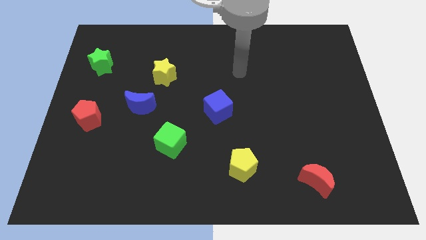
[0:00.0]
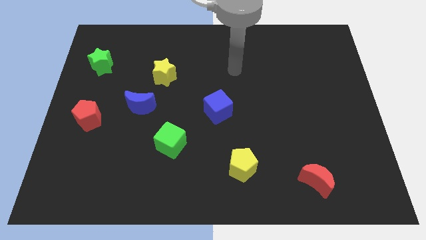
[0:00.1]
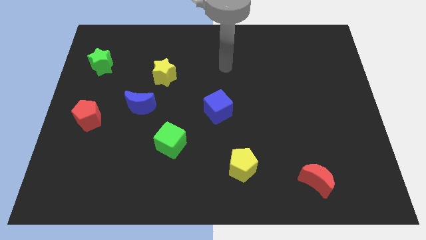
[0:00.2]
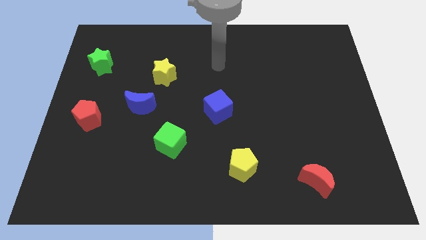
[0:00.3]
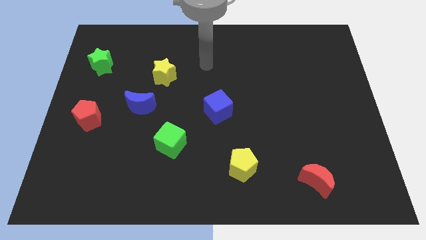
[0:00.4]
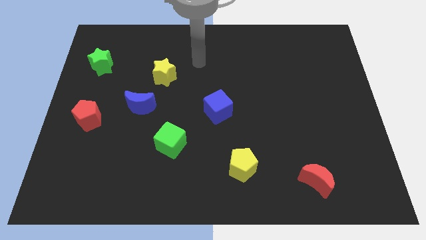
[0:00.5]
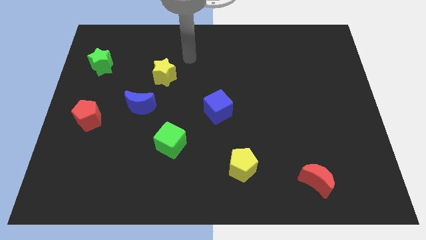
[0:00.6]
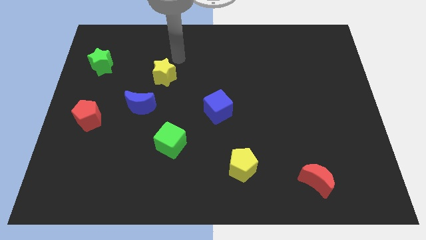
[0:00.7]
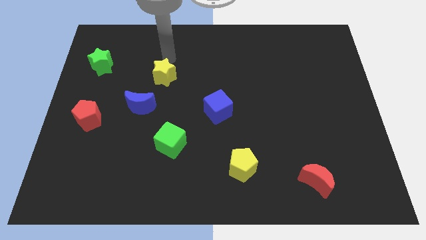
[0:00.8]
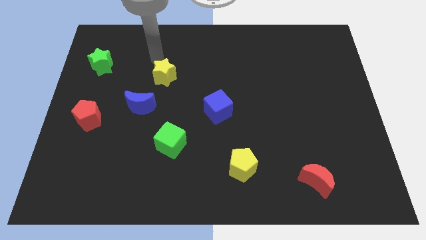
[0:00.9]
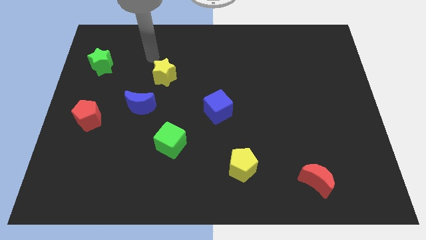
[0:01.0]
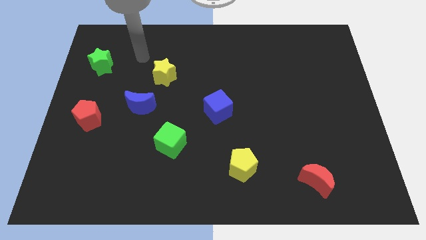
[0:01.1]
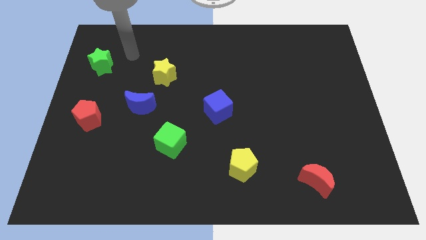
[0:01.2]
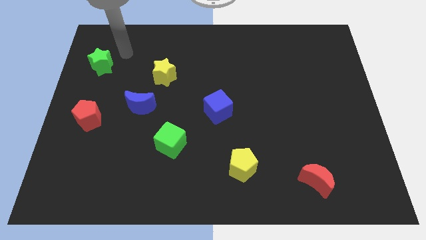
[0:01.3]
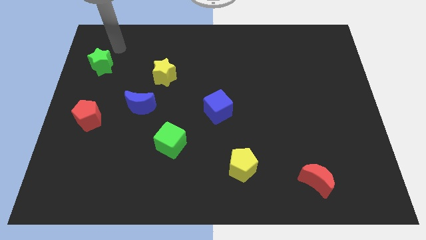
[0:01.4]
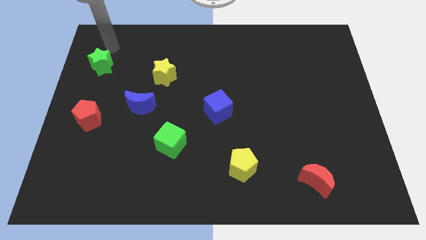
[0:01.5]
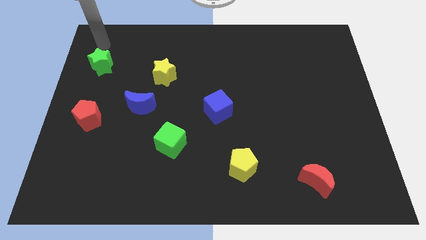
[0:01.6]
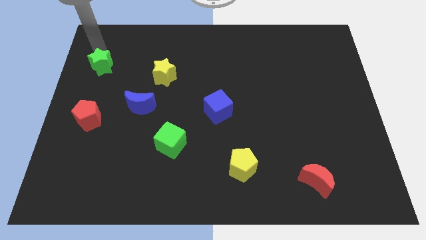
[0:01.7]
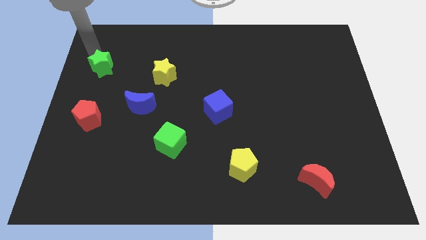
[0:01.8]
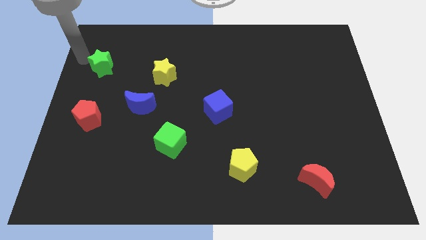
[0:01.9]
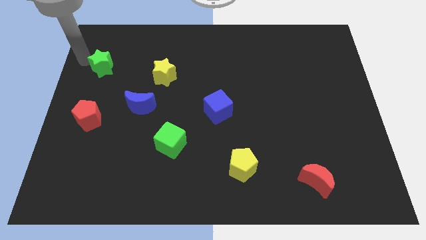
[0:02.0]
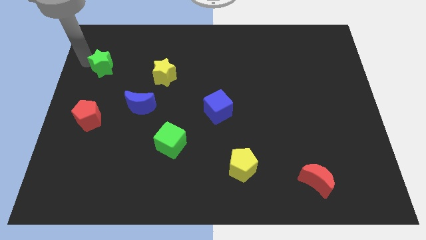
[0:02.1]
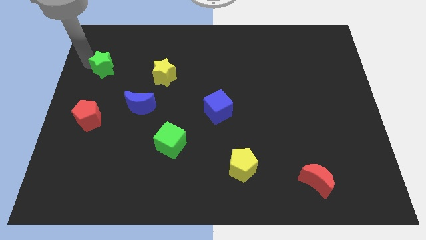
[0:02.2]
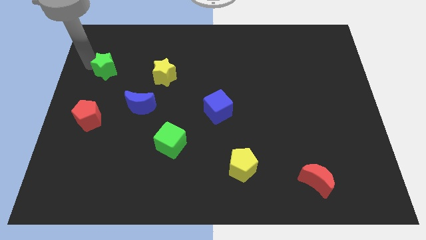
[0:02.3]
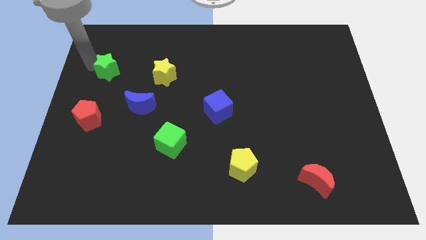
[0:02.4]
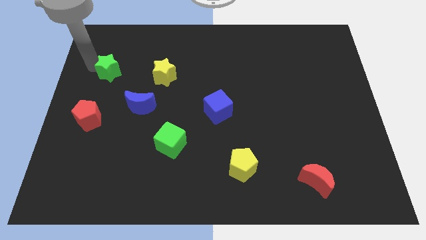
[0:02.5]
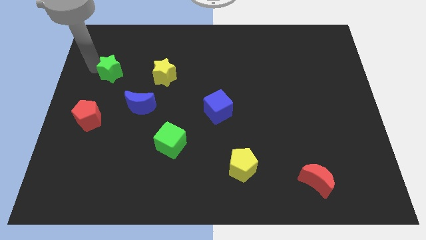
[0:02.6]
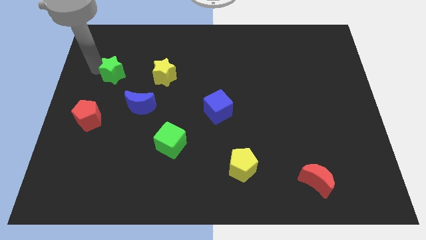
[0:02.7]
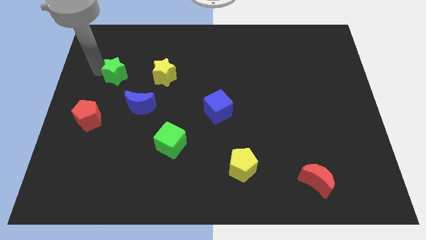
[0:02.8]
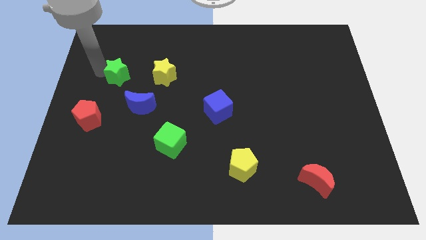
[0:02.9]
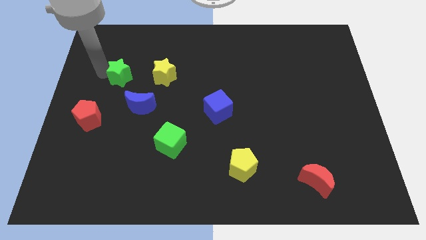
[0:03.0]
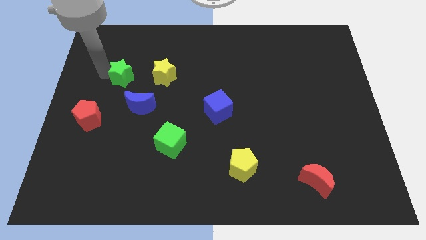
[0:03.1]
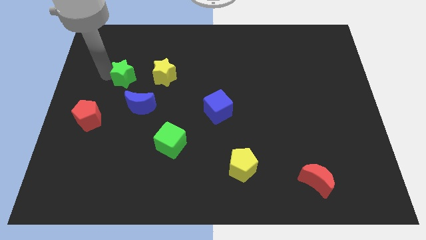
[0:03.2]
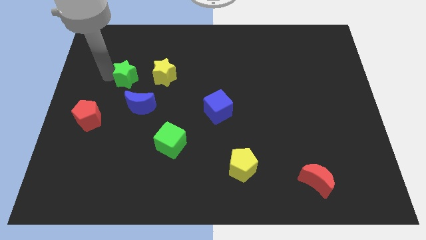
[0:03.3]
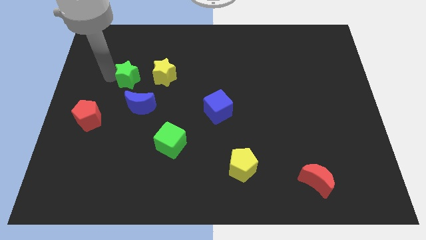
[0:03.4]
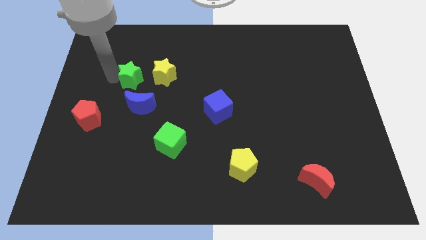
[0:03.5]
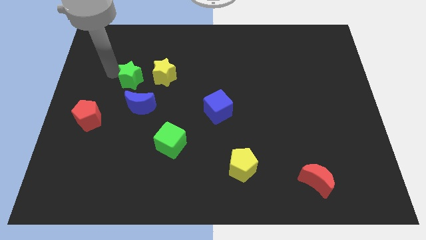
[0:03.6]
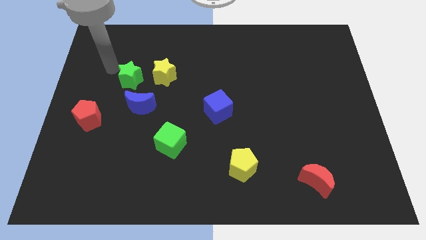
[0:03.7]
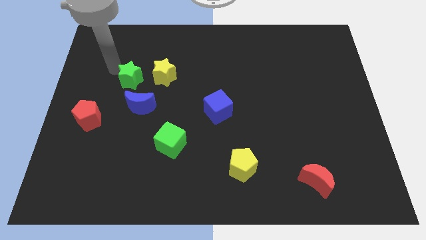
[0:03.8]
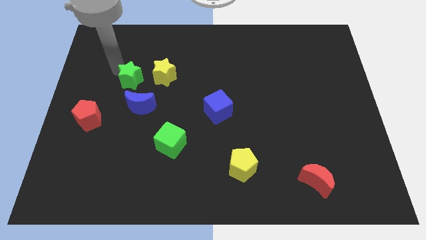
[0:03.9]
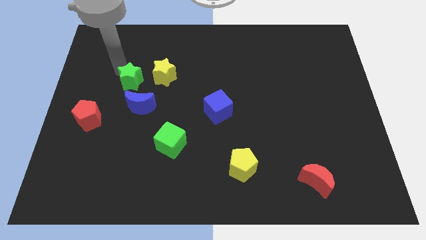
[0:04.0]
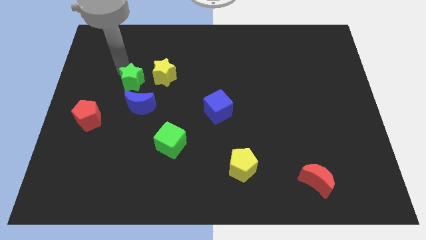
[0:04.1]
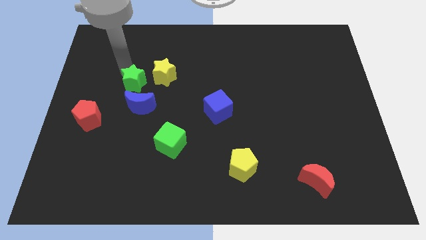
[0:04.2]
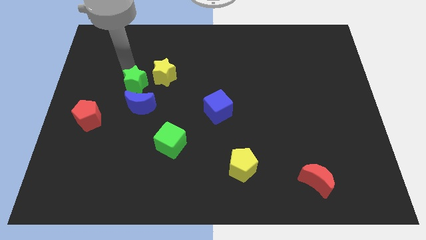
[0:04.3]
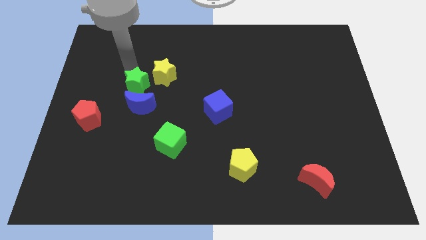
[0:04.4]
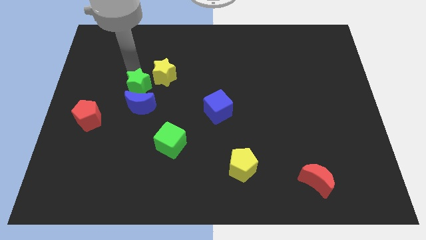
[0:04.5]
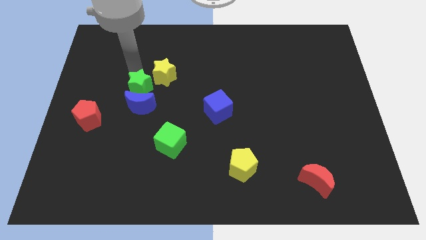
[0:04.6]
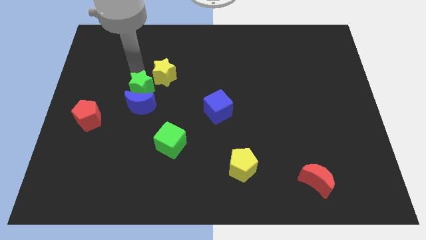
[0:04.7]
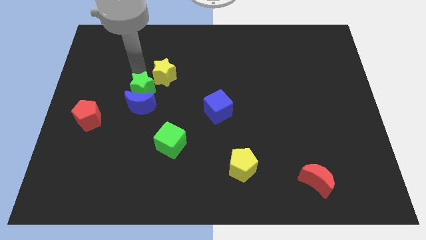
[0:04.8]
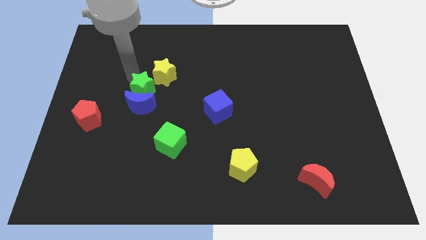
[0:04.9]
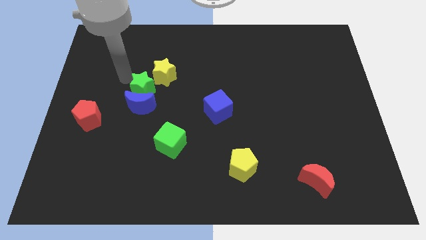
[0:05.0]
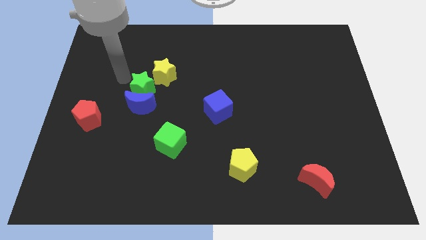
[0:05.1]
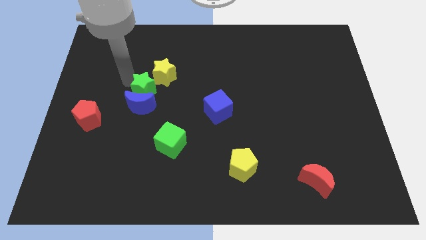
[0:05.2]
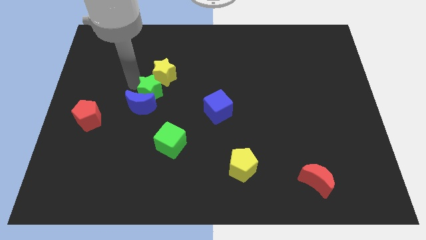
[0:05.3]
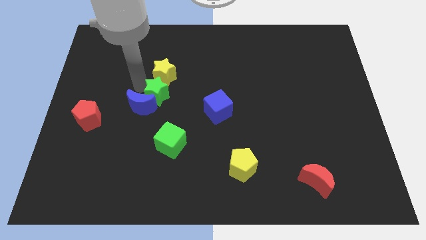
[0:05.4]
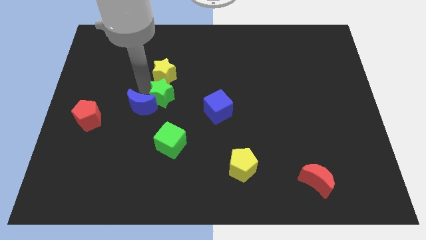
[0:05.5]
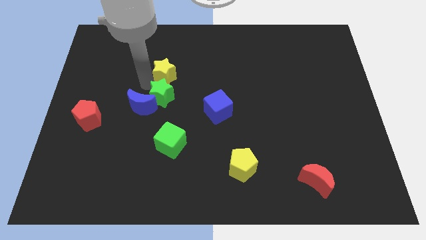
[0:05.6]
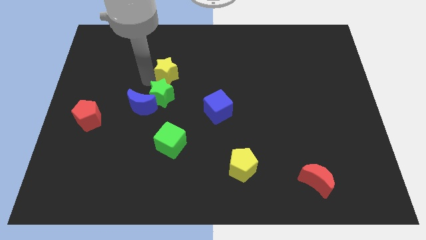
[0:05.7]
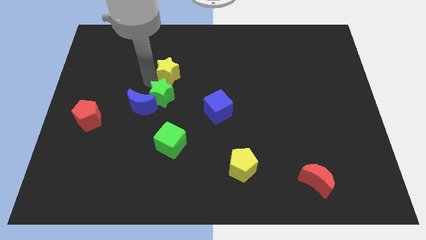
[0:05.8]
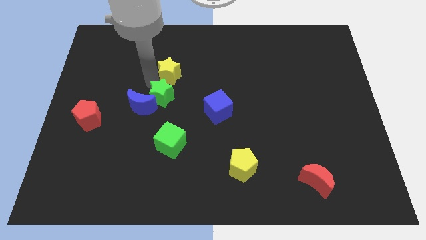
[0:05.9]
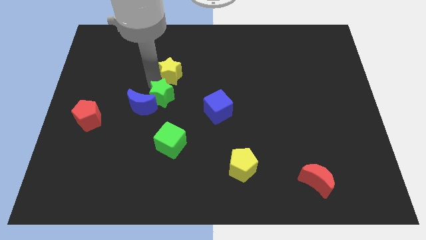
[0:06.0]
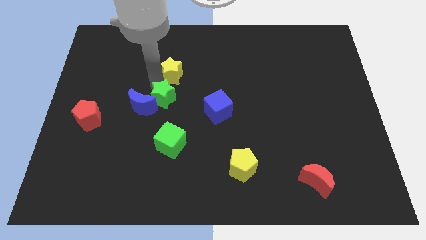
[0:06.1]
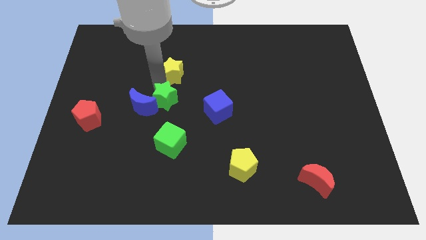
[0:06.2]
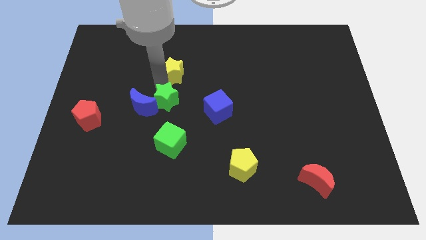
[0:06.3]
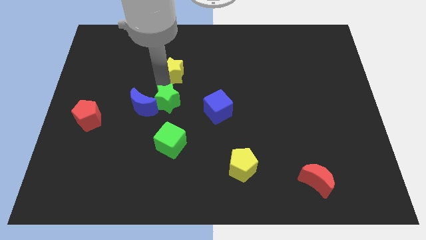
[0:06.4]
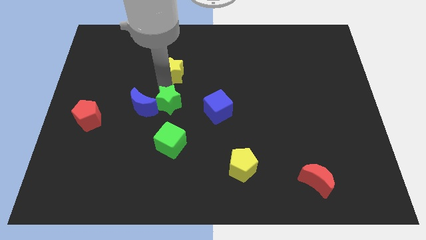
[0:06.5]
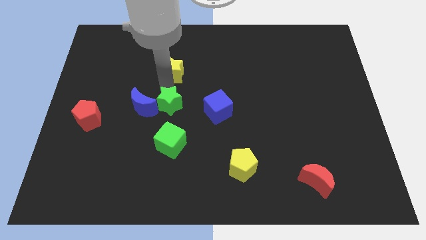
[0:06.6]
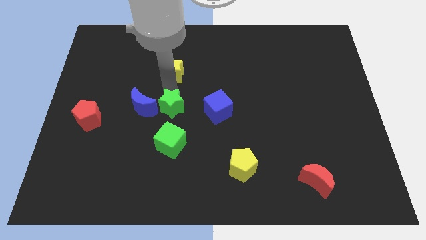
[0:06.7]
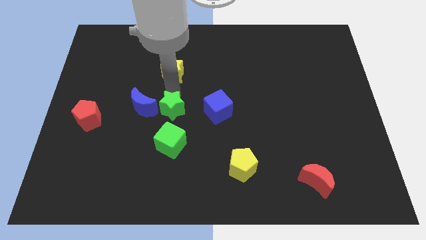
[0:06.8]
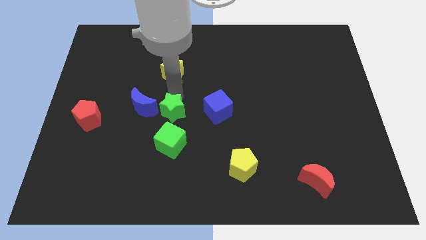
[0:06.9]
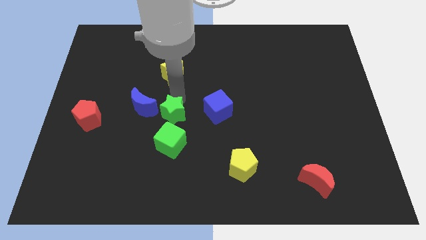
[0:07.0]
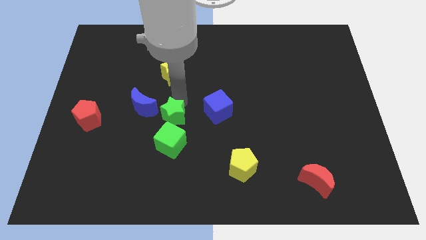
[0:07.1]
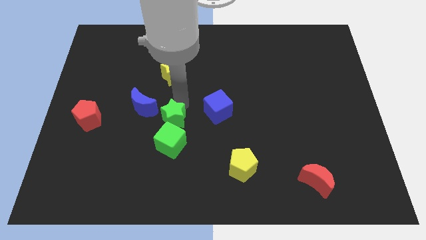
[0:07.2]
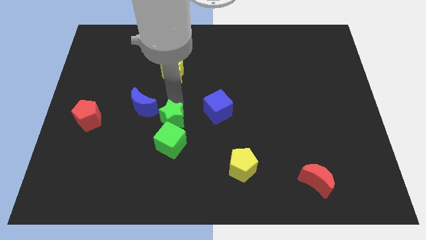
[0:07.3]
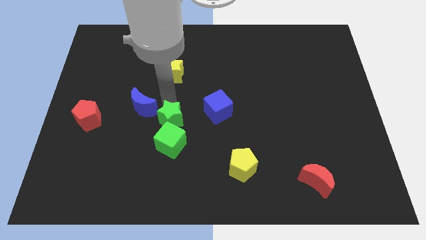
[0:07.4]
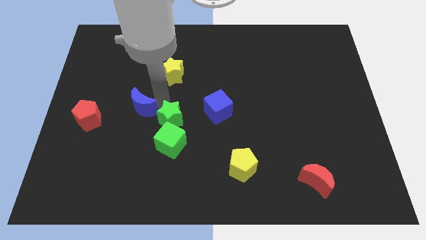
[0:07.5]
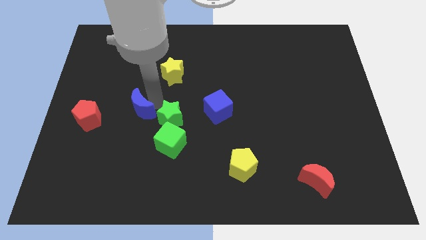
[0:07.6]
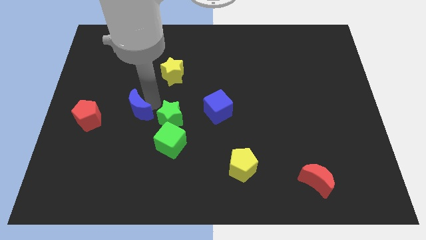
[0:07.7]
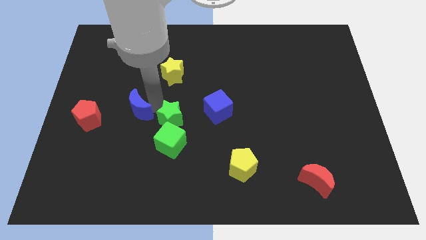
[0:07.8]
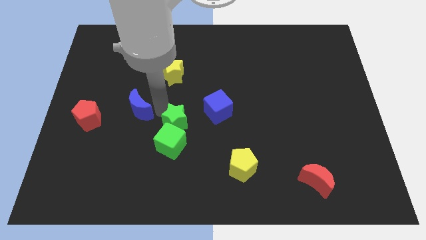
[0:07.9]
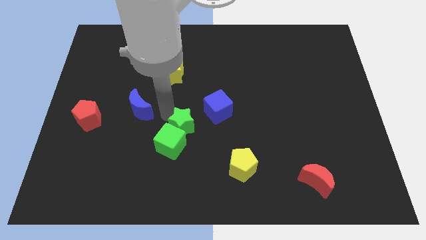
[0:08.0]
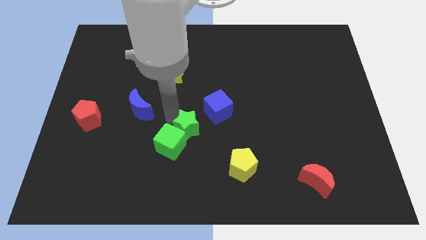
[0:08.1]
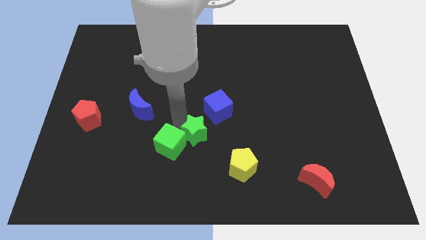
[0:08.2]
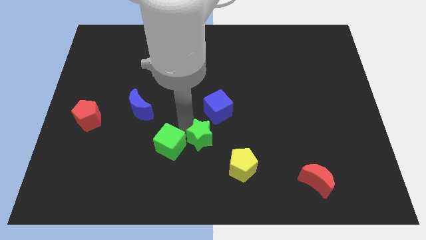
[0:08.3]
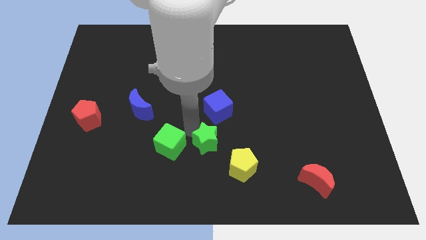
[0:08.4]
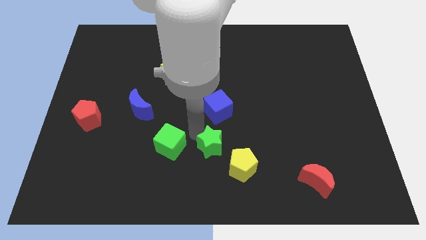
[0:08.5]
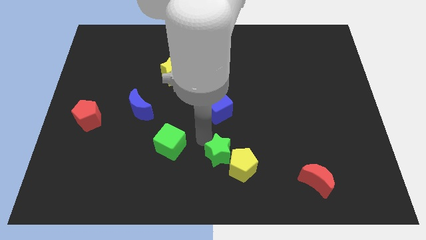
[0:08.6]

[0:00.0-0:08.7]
push the green star towards the yellow pentagon
